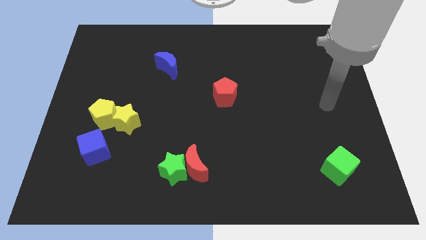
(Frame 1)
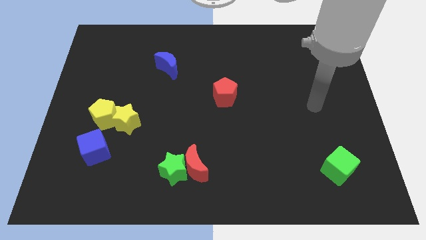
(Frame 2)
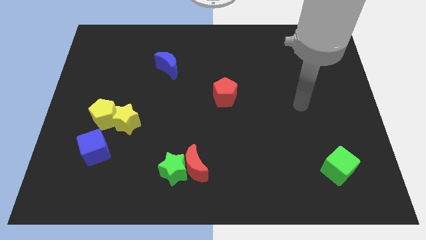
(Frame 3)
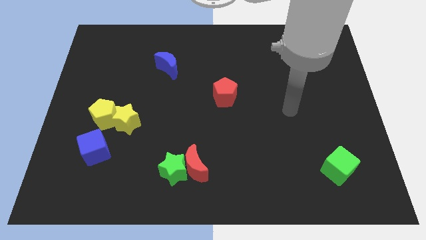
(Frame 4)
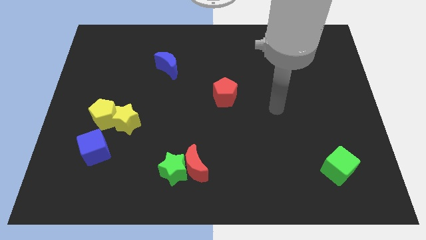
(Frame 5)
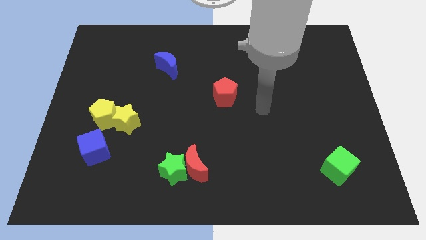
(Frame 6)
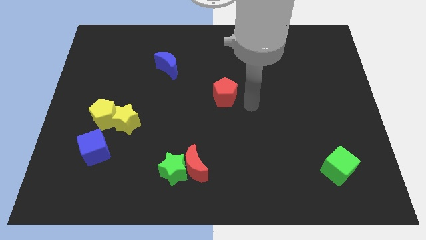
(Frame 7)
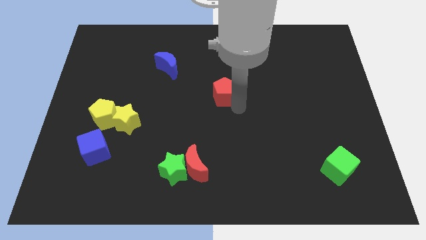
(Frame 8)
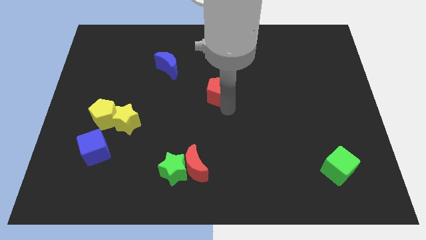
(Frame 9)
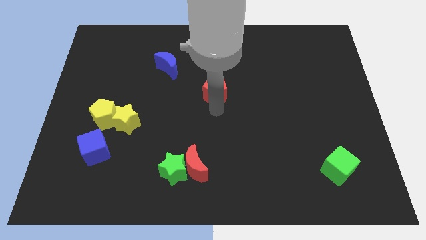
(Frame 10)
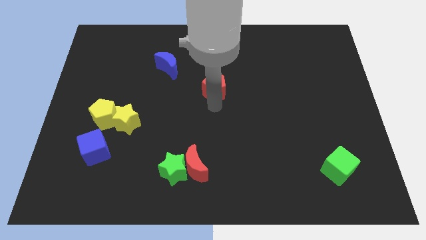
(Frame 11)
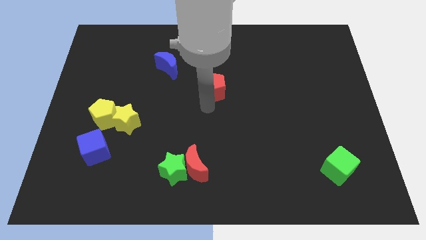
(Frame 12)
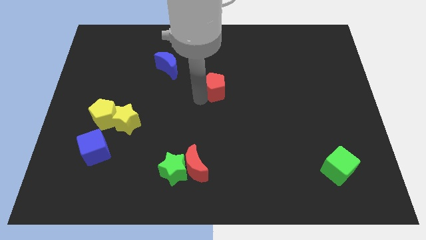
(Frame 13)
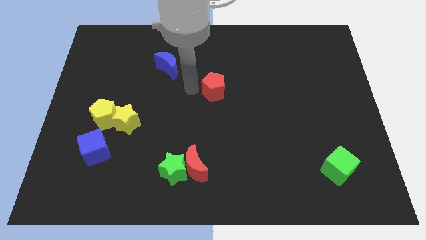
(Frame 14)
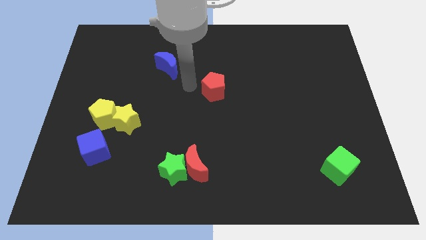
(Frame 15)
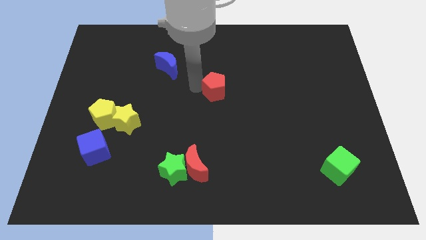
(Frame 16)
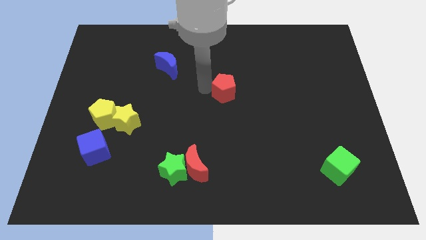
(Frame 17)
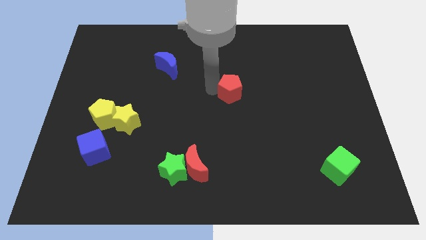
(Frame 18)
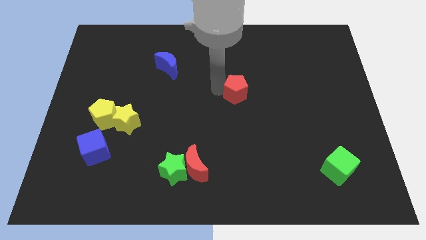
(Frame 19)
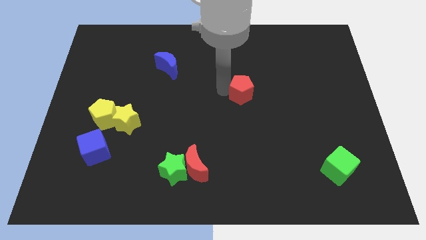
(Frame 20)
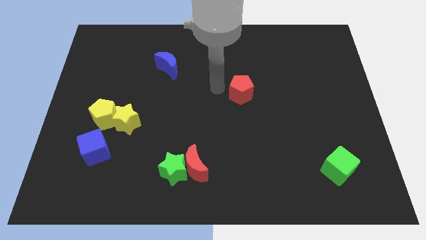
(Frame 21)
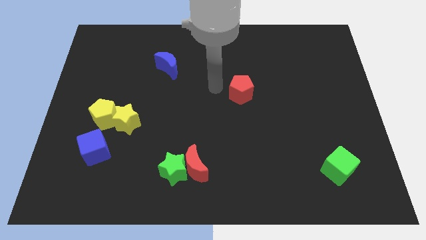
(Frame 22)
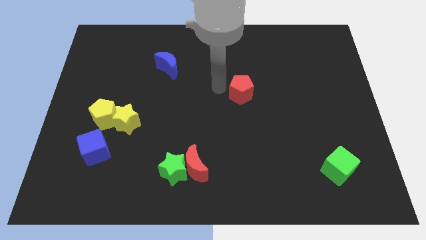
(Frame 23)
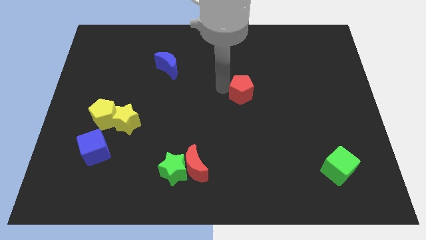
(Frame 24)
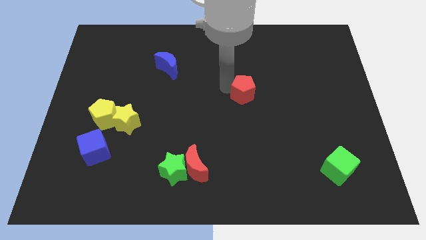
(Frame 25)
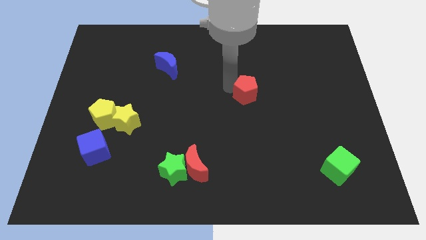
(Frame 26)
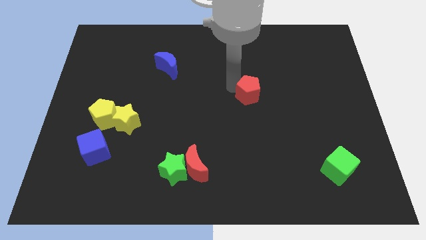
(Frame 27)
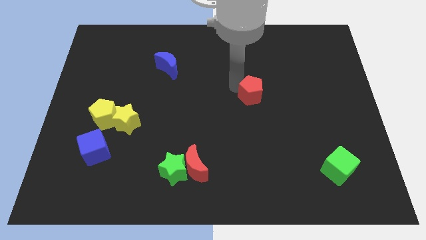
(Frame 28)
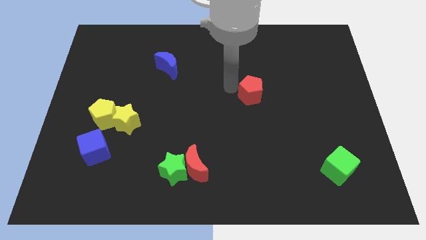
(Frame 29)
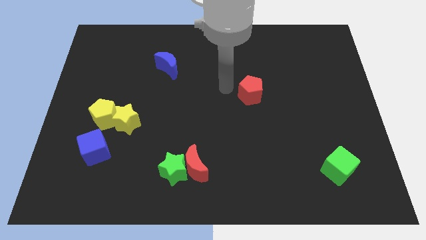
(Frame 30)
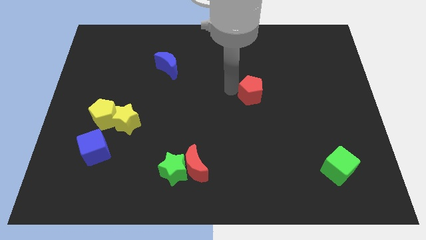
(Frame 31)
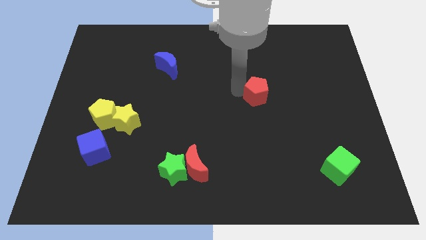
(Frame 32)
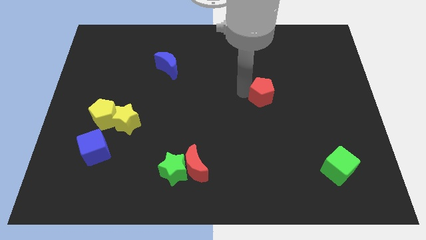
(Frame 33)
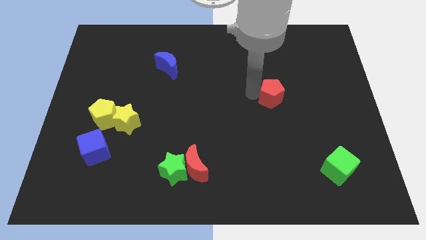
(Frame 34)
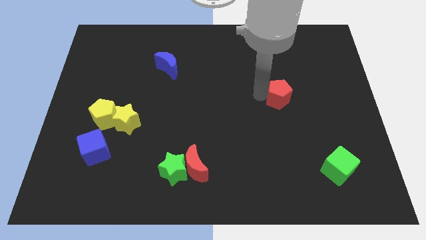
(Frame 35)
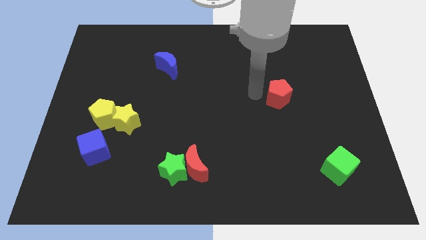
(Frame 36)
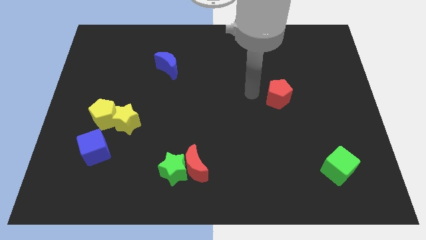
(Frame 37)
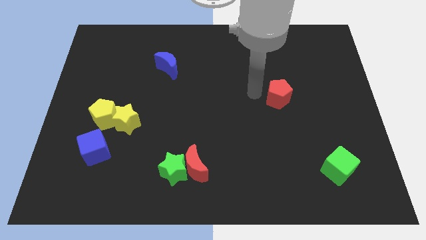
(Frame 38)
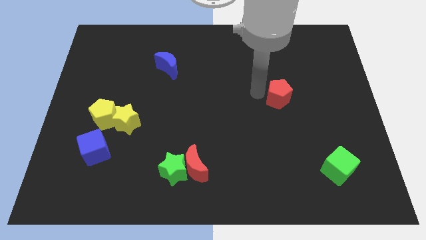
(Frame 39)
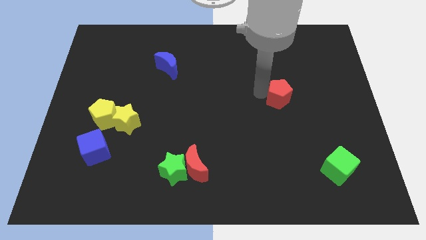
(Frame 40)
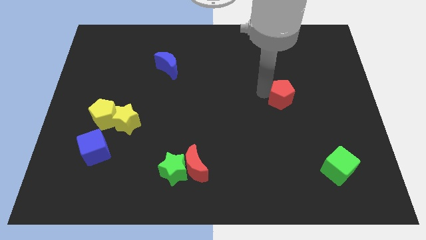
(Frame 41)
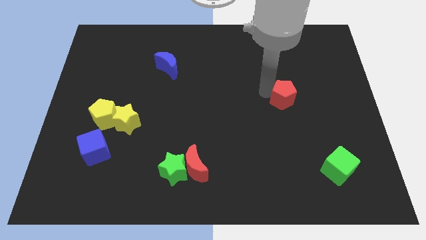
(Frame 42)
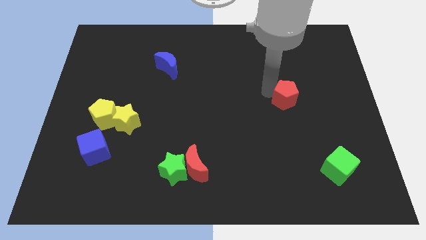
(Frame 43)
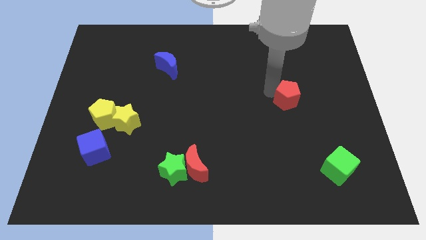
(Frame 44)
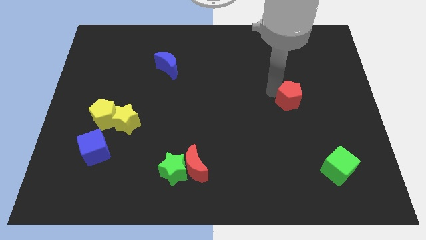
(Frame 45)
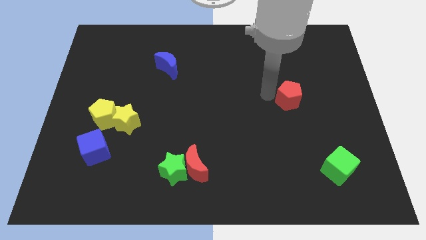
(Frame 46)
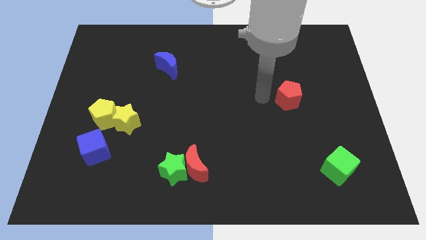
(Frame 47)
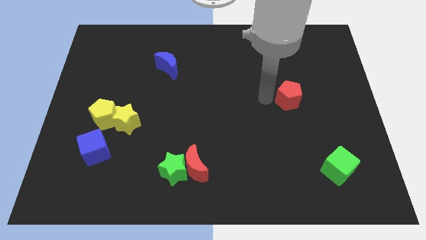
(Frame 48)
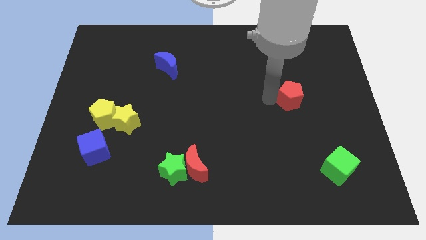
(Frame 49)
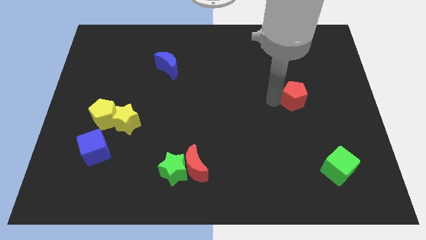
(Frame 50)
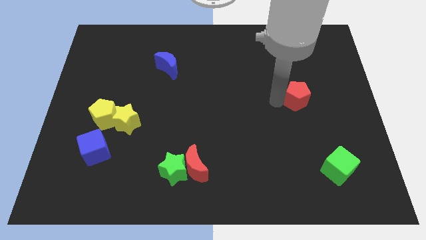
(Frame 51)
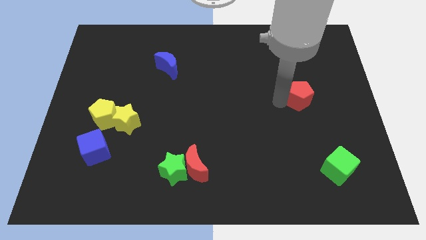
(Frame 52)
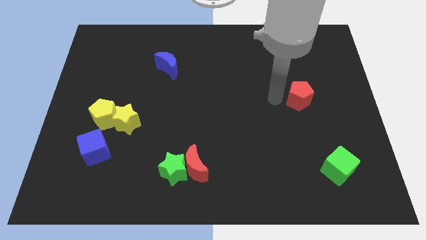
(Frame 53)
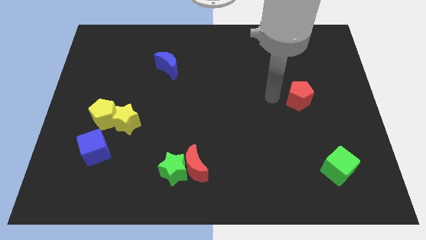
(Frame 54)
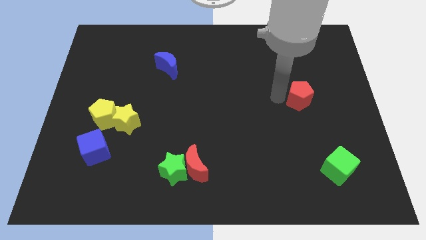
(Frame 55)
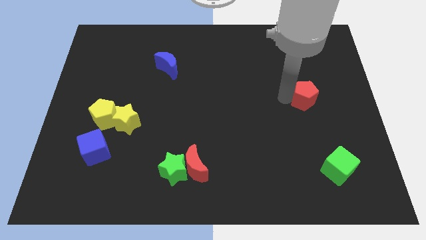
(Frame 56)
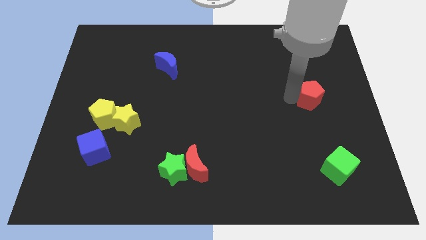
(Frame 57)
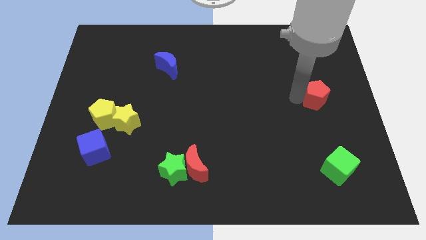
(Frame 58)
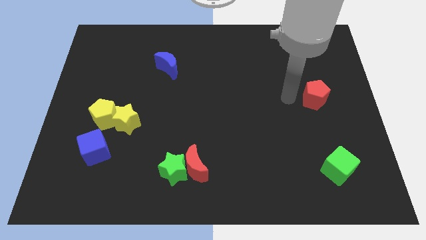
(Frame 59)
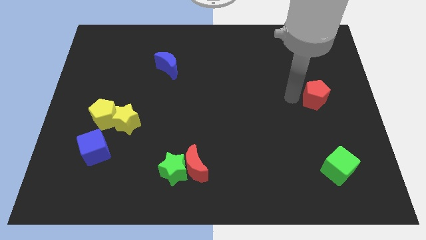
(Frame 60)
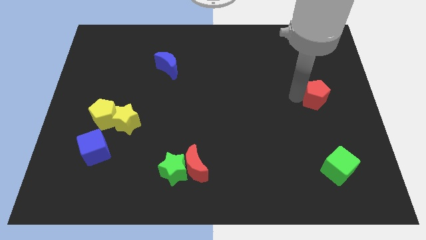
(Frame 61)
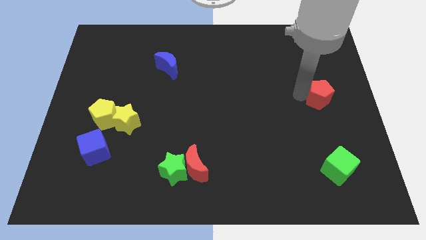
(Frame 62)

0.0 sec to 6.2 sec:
slide the red pentagon to the right side of the board
